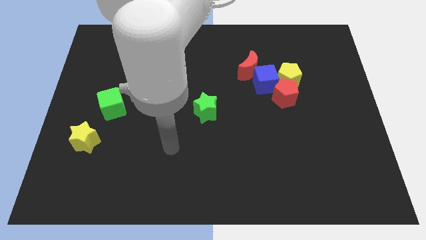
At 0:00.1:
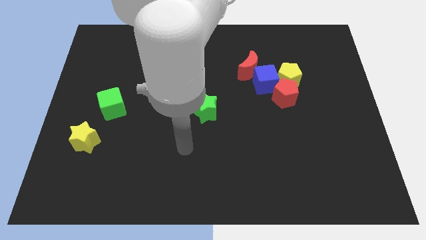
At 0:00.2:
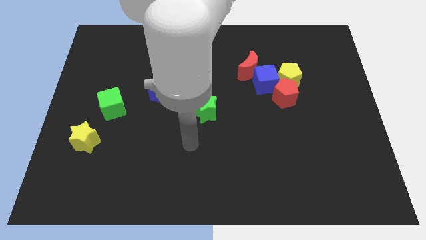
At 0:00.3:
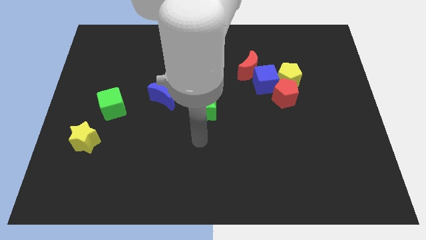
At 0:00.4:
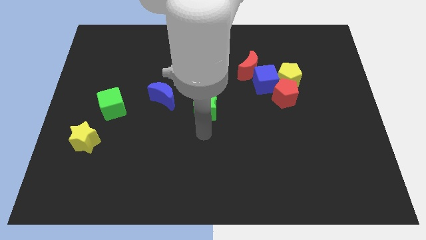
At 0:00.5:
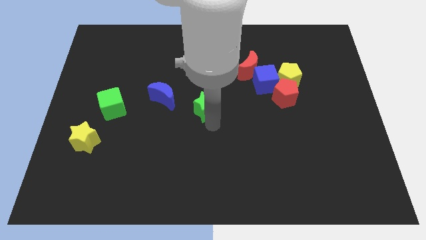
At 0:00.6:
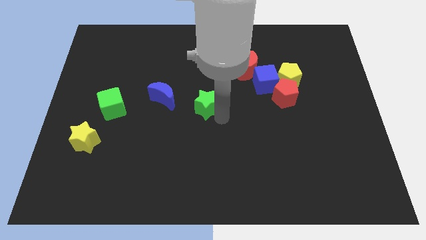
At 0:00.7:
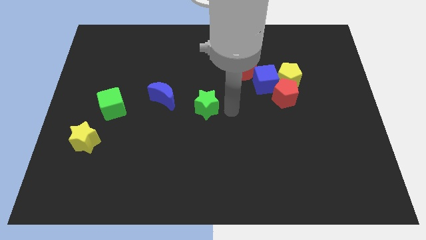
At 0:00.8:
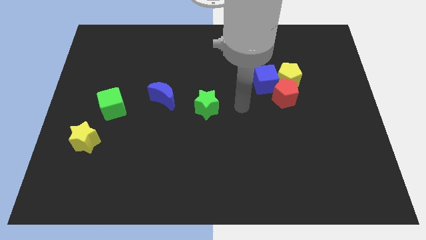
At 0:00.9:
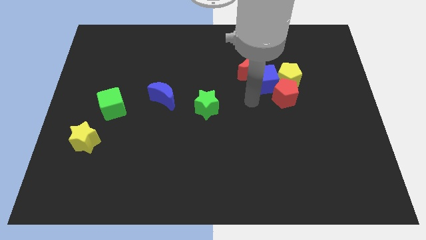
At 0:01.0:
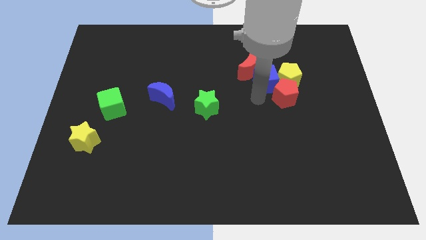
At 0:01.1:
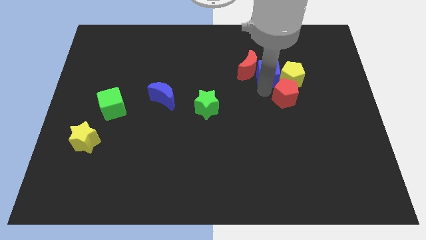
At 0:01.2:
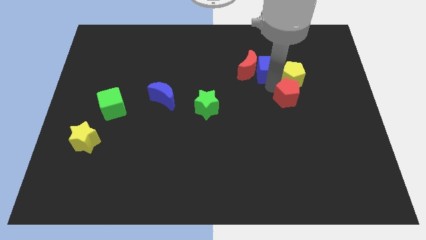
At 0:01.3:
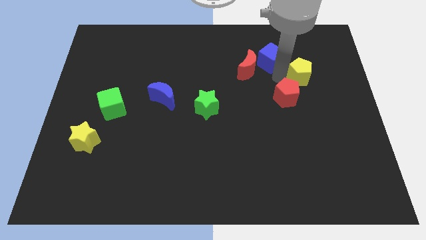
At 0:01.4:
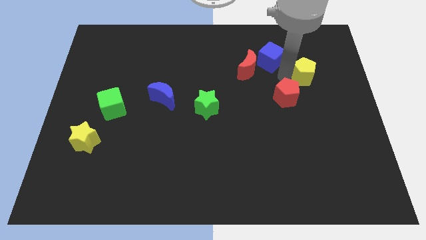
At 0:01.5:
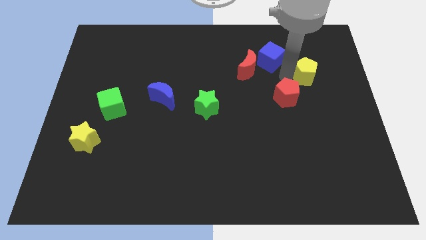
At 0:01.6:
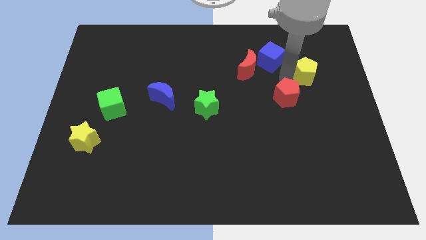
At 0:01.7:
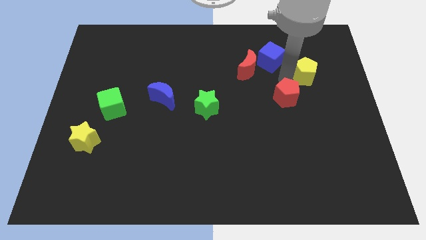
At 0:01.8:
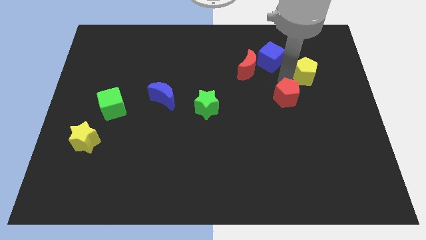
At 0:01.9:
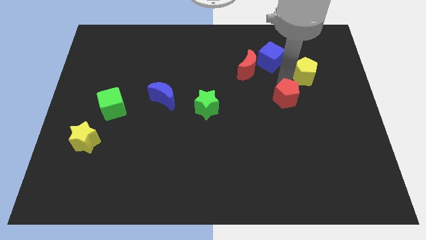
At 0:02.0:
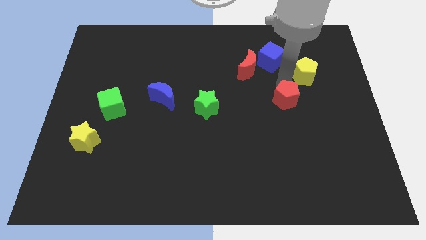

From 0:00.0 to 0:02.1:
separate the red pentagon from the yellow pentagon and blue cube

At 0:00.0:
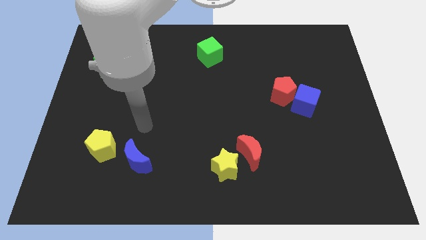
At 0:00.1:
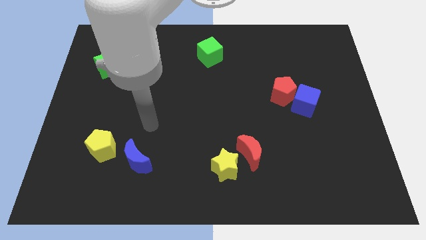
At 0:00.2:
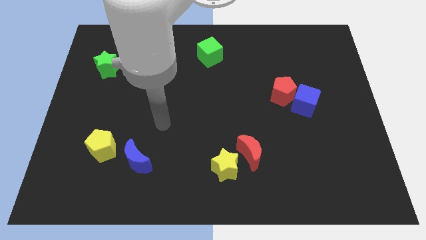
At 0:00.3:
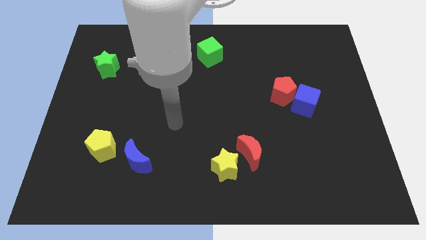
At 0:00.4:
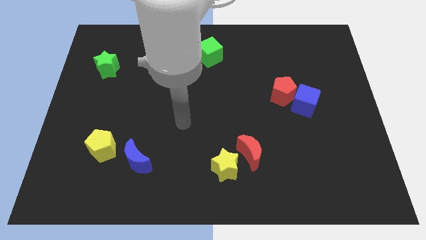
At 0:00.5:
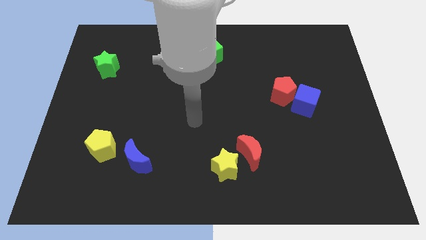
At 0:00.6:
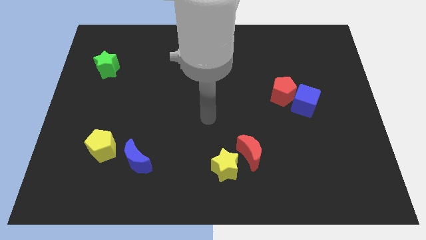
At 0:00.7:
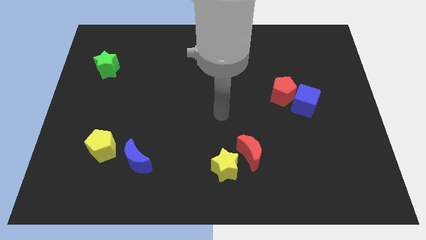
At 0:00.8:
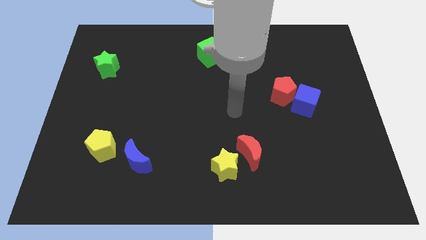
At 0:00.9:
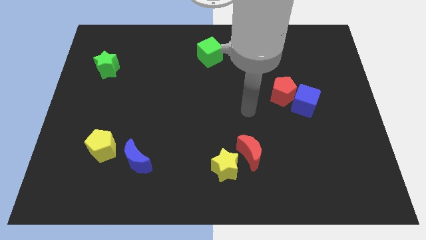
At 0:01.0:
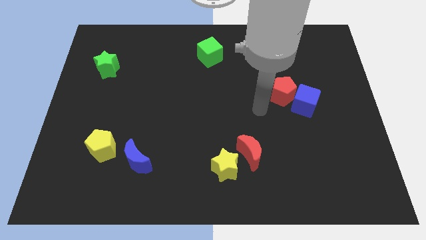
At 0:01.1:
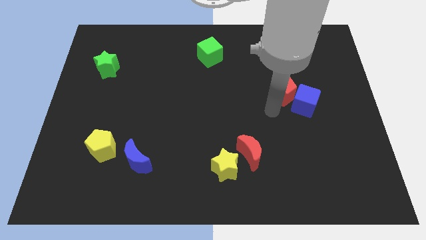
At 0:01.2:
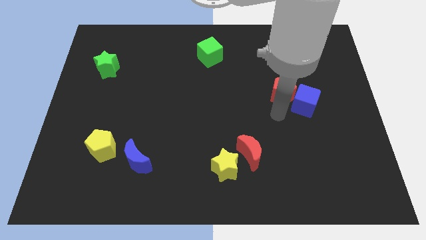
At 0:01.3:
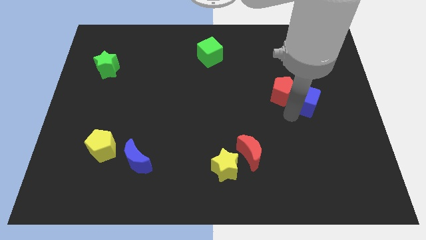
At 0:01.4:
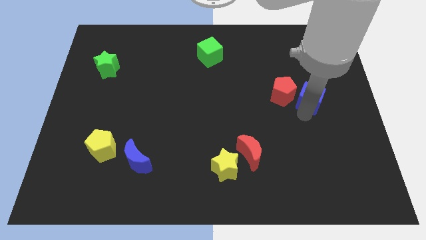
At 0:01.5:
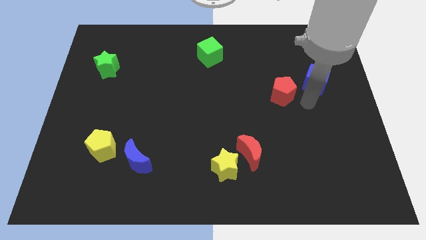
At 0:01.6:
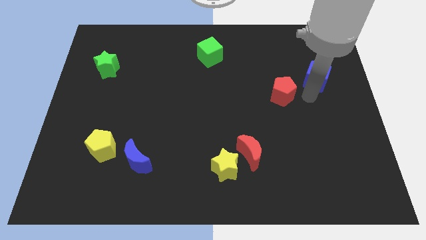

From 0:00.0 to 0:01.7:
pull the red pentagon apart from the blue cube

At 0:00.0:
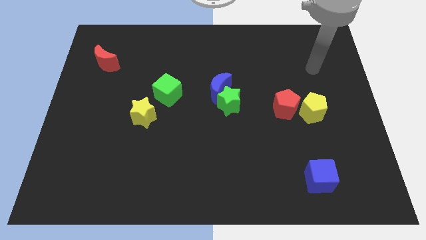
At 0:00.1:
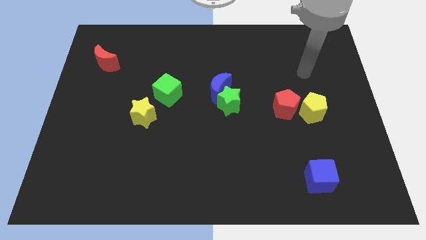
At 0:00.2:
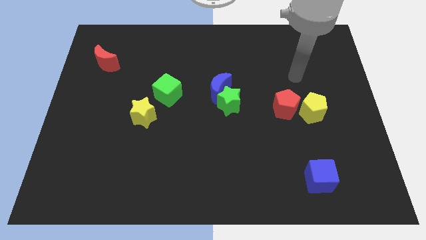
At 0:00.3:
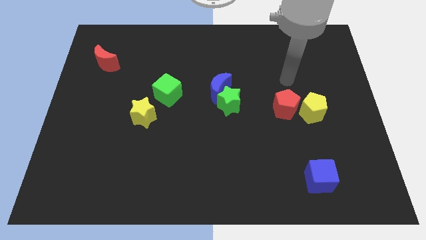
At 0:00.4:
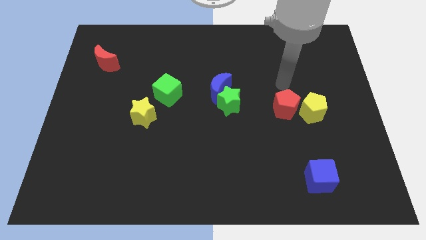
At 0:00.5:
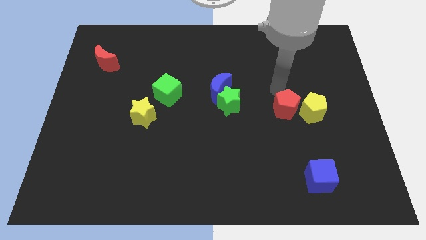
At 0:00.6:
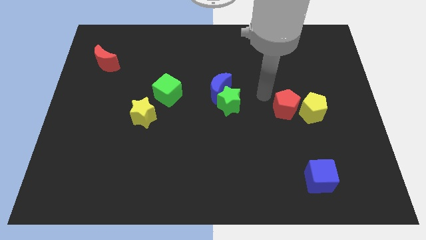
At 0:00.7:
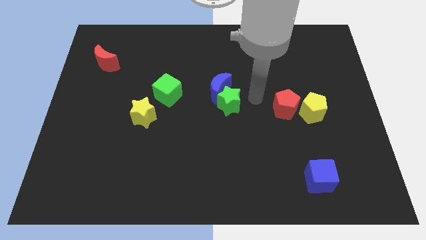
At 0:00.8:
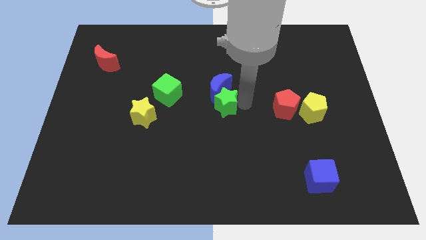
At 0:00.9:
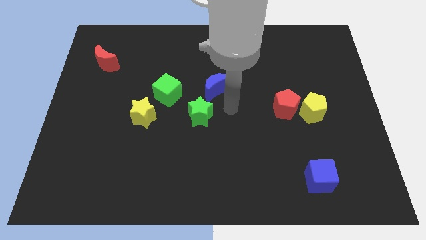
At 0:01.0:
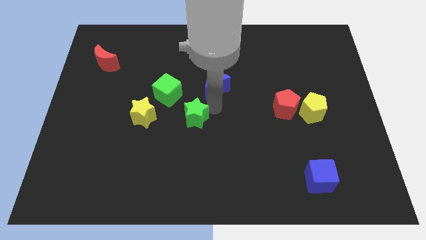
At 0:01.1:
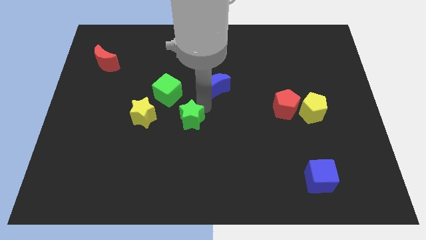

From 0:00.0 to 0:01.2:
separate the blue moon from the green star

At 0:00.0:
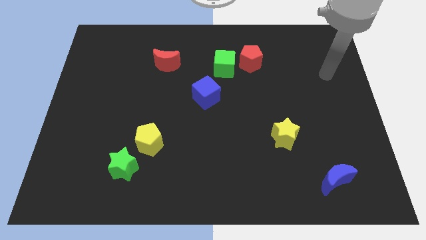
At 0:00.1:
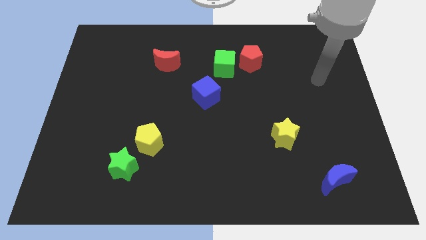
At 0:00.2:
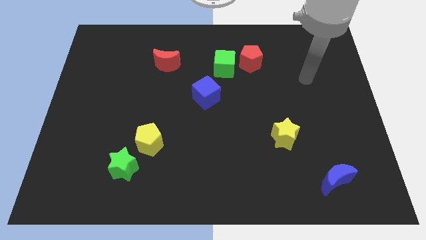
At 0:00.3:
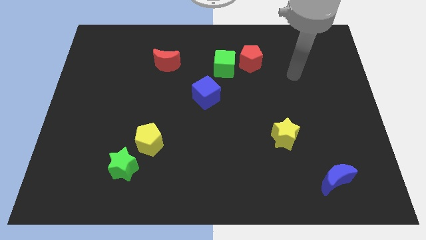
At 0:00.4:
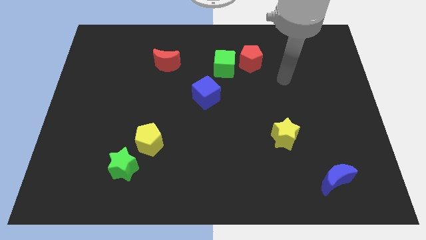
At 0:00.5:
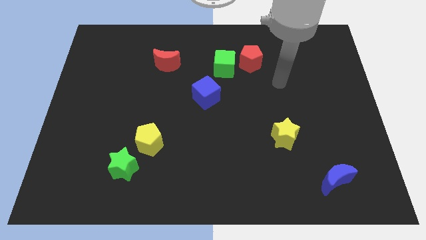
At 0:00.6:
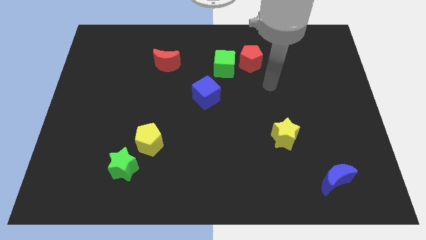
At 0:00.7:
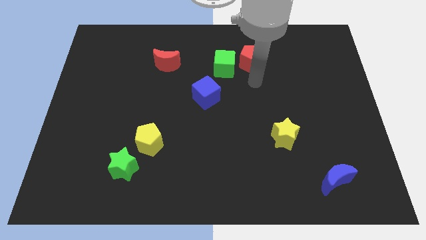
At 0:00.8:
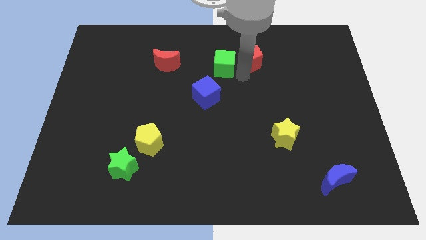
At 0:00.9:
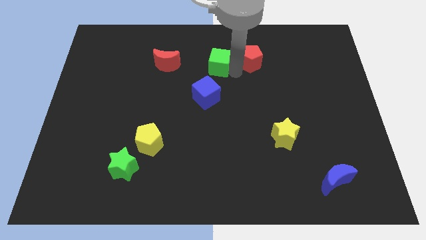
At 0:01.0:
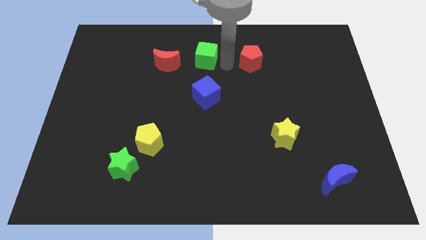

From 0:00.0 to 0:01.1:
move the red pentagon away from the green cube

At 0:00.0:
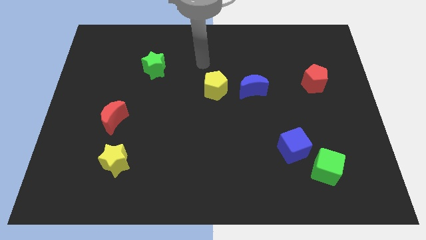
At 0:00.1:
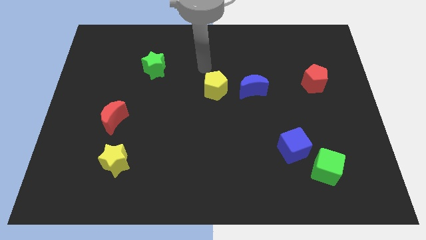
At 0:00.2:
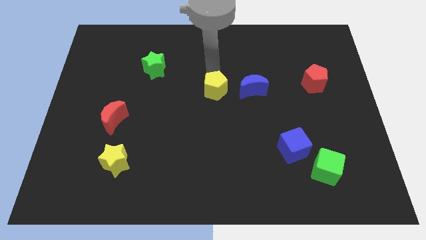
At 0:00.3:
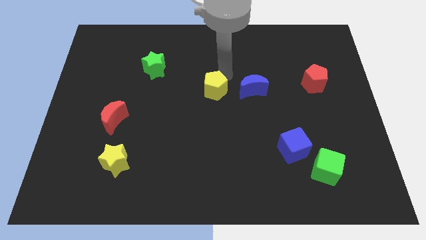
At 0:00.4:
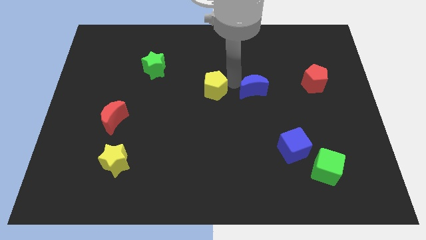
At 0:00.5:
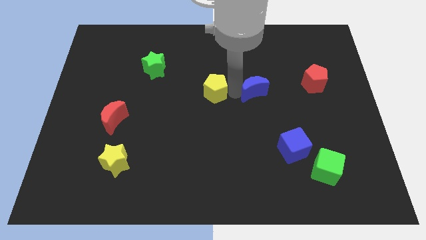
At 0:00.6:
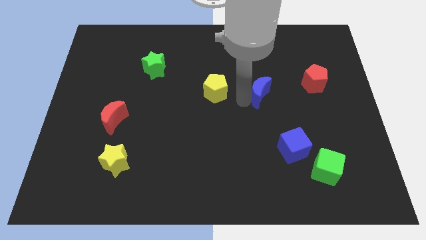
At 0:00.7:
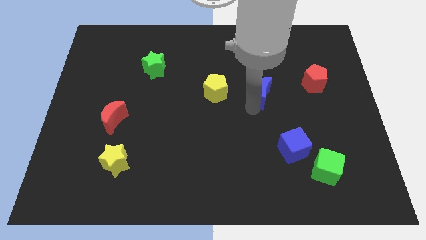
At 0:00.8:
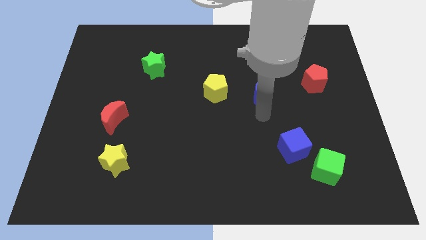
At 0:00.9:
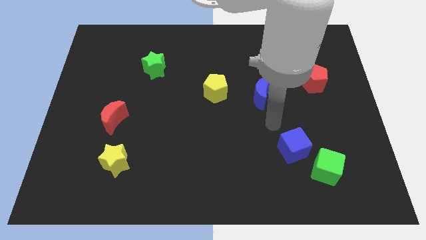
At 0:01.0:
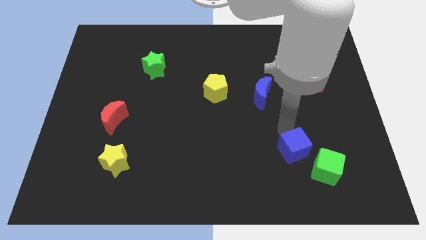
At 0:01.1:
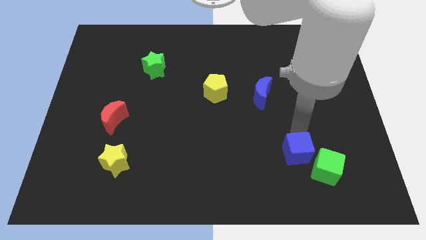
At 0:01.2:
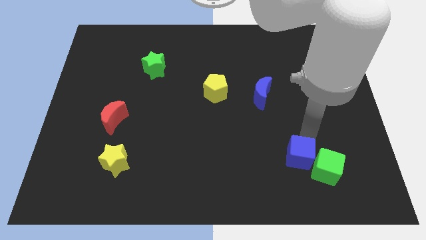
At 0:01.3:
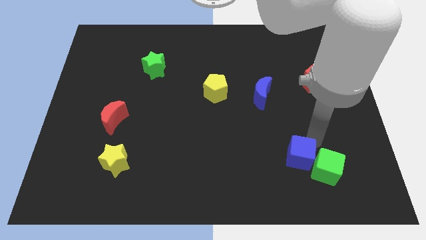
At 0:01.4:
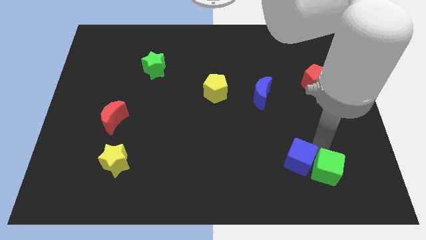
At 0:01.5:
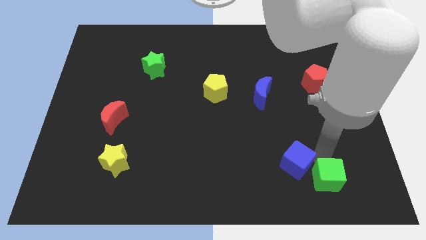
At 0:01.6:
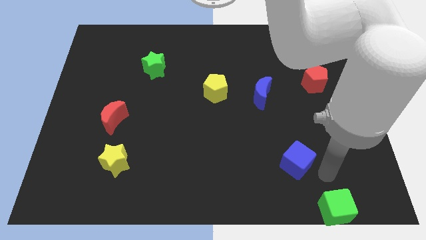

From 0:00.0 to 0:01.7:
separate the blue cube from the green cube

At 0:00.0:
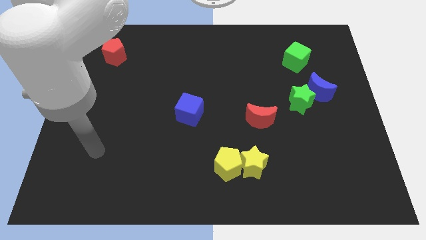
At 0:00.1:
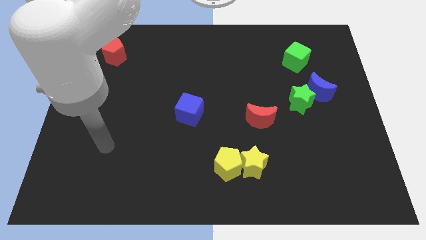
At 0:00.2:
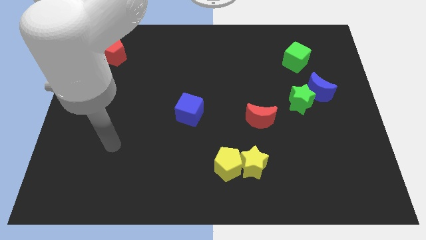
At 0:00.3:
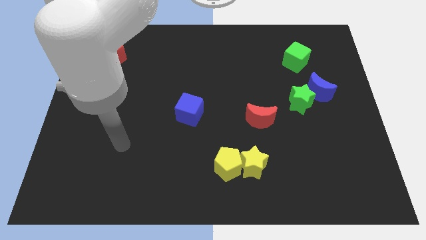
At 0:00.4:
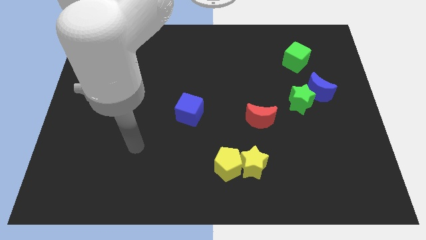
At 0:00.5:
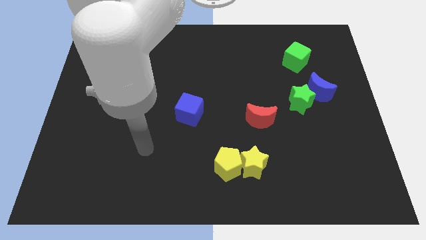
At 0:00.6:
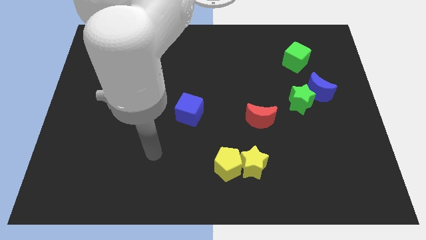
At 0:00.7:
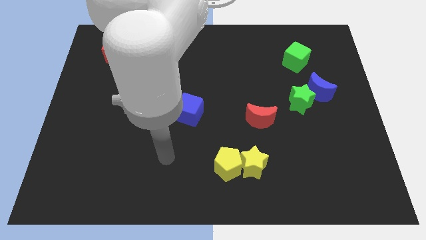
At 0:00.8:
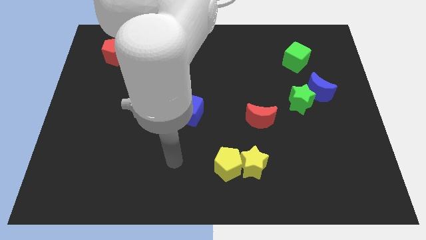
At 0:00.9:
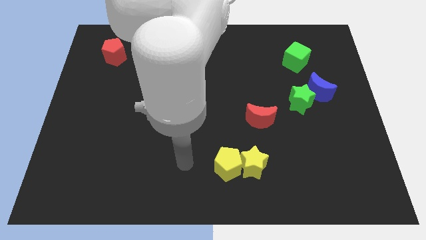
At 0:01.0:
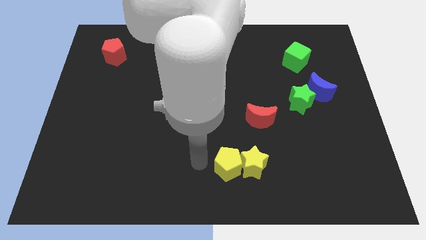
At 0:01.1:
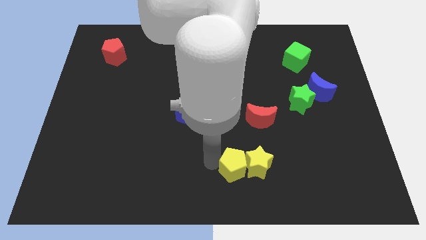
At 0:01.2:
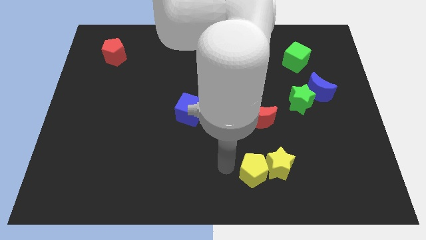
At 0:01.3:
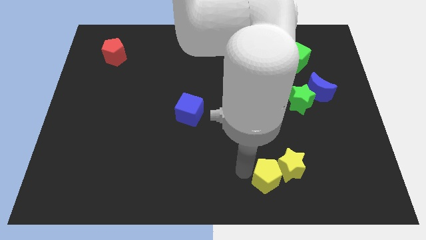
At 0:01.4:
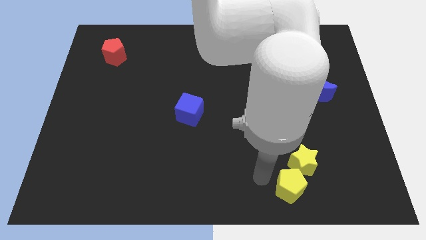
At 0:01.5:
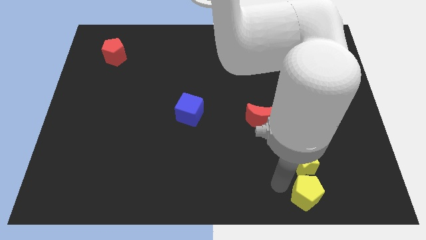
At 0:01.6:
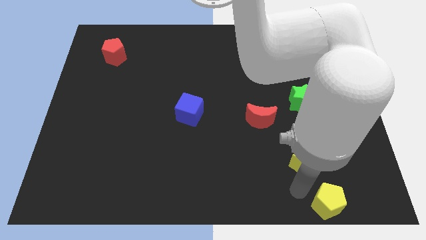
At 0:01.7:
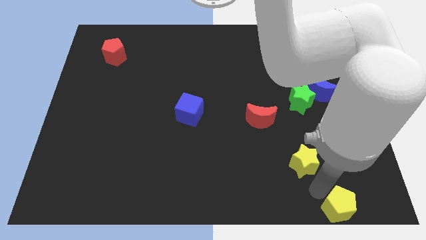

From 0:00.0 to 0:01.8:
separate the yellow star from the yellow pentagon
